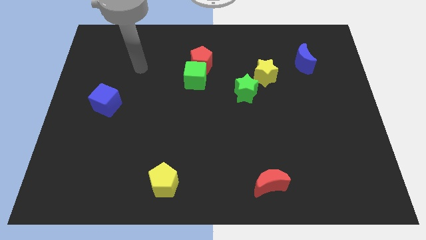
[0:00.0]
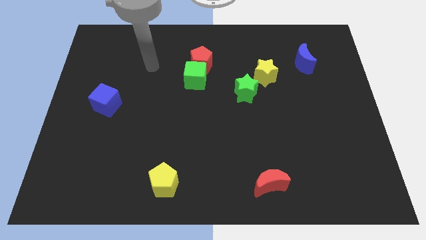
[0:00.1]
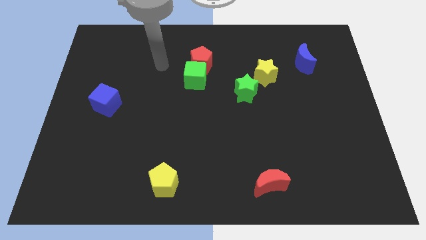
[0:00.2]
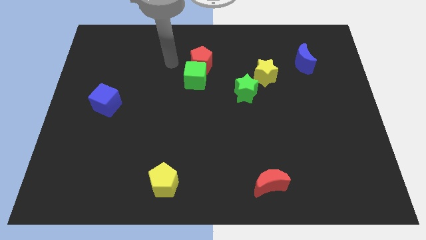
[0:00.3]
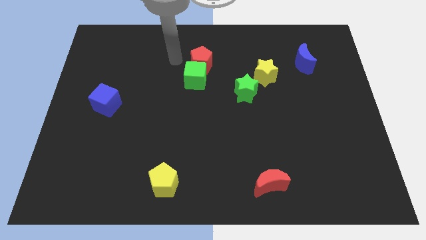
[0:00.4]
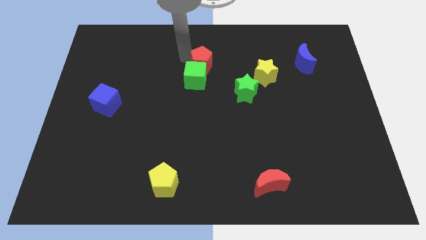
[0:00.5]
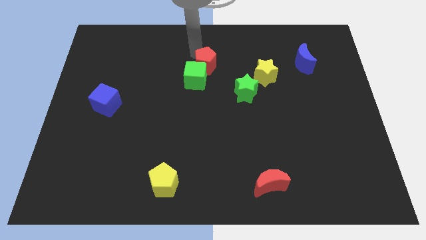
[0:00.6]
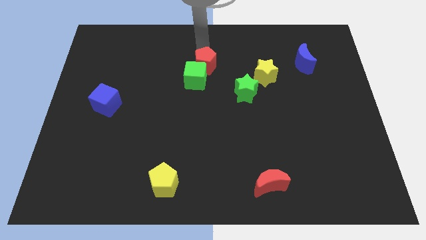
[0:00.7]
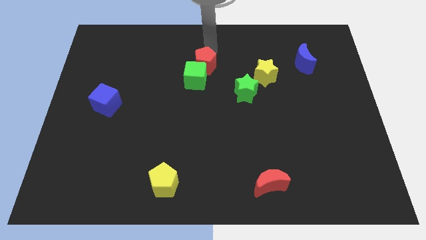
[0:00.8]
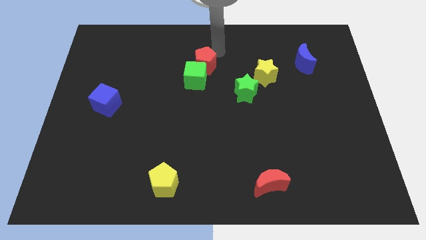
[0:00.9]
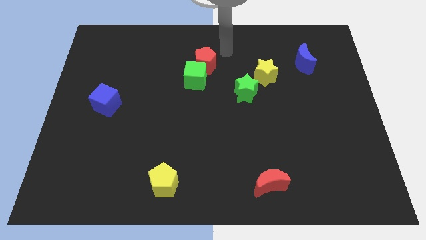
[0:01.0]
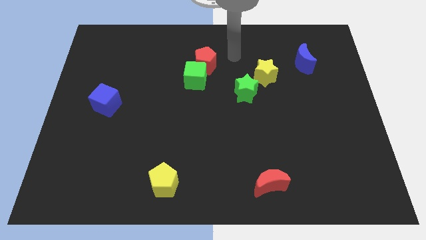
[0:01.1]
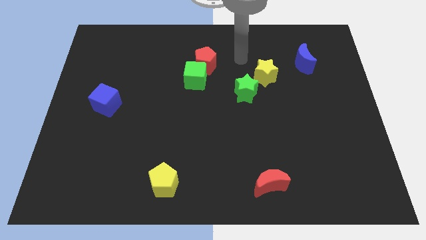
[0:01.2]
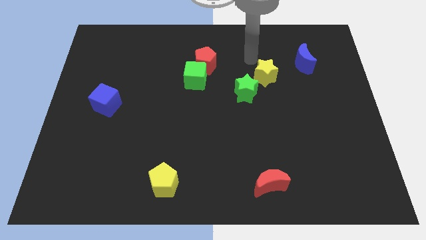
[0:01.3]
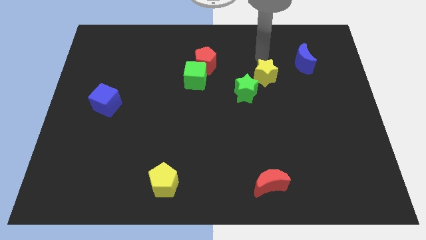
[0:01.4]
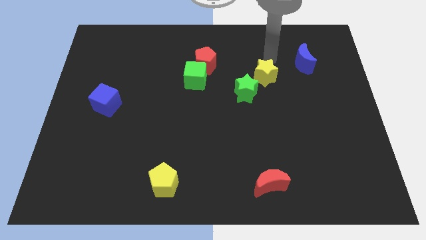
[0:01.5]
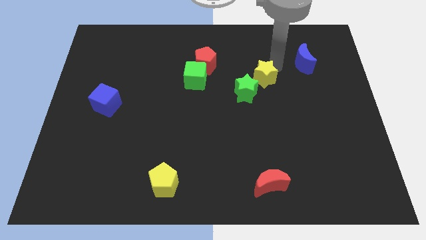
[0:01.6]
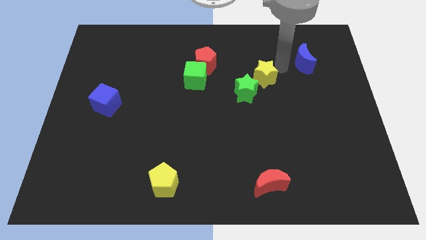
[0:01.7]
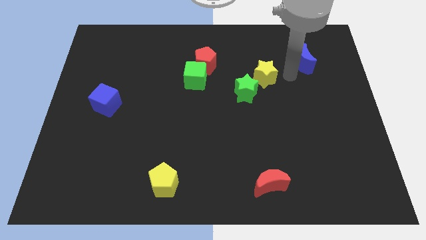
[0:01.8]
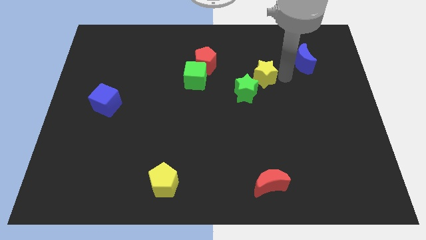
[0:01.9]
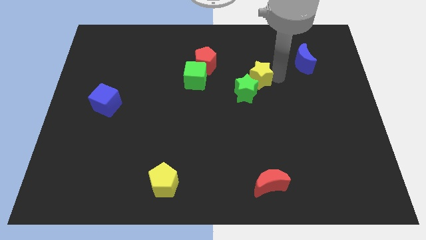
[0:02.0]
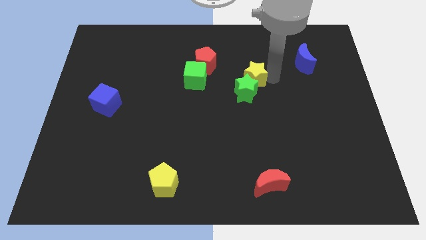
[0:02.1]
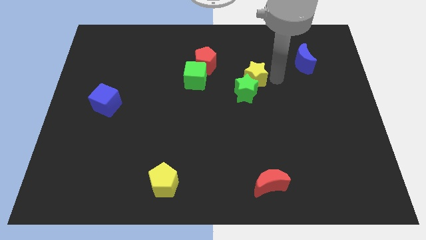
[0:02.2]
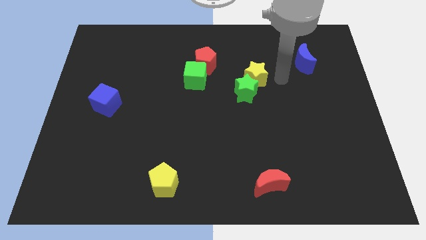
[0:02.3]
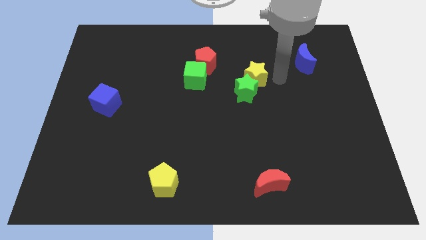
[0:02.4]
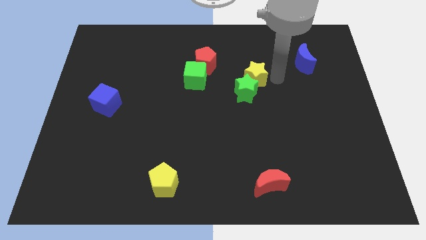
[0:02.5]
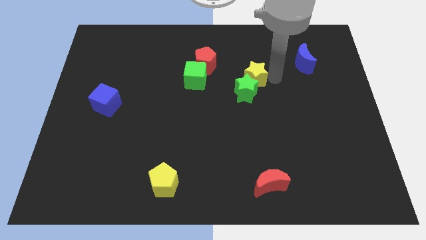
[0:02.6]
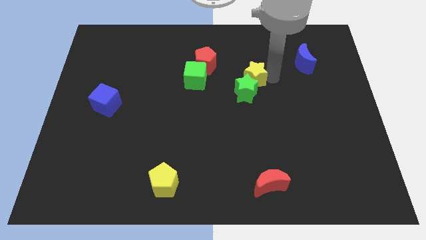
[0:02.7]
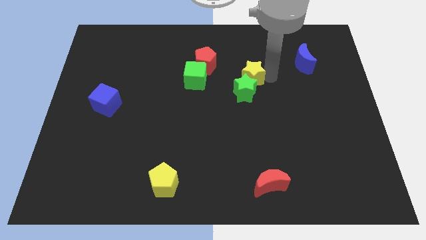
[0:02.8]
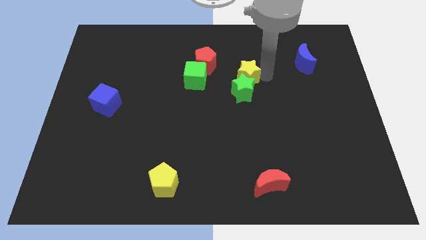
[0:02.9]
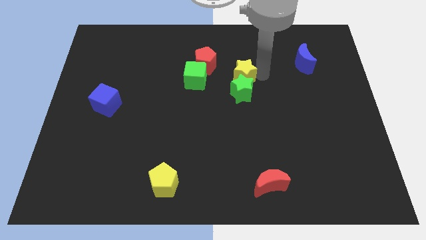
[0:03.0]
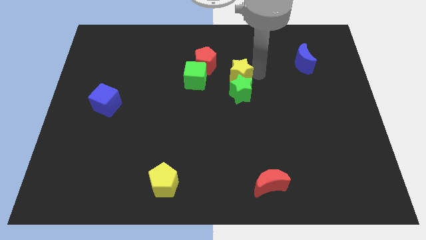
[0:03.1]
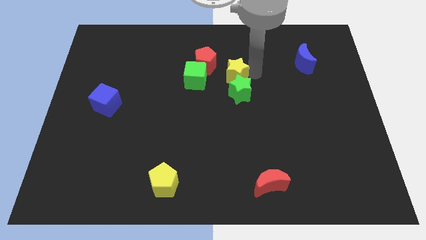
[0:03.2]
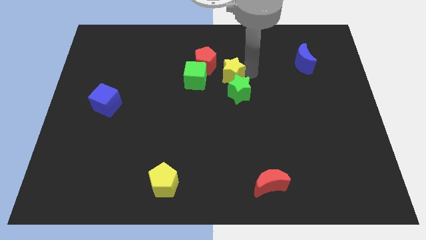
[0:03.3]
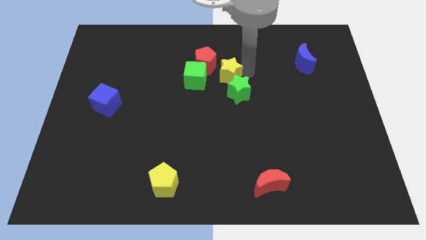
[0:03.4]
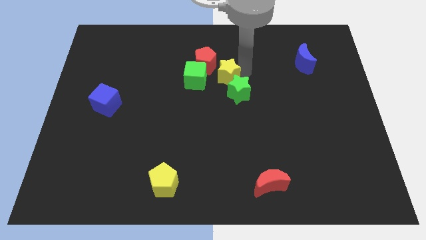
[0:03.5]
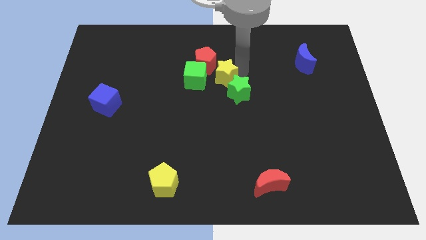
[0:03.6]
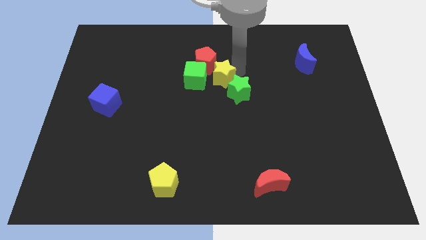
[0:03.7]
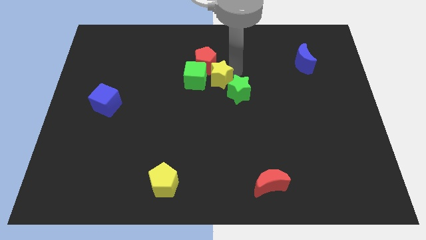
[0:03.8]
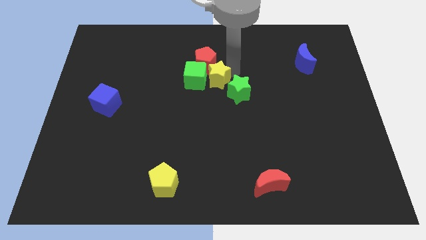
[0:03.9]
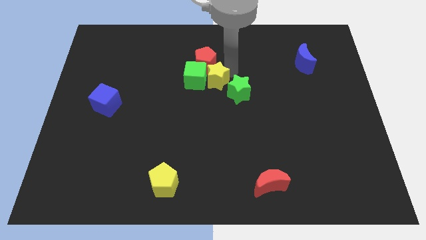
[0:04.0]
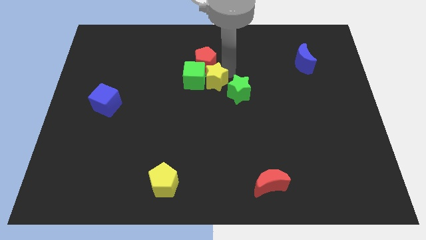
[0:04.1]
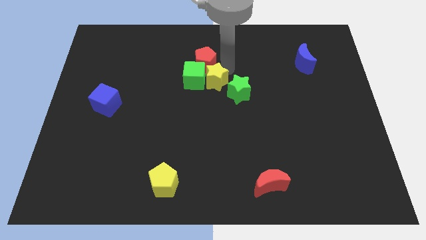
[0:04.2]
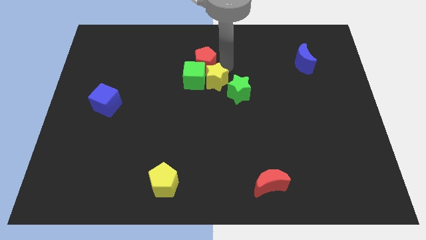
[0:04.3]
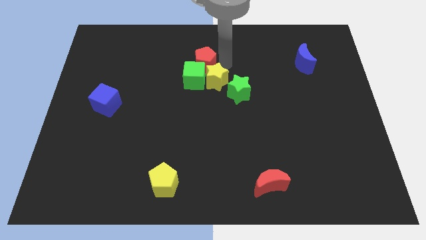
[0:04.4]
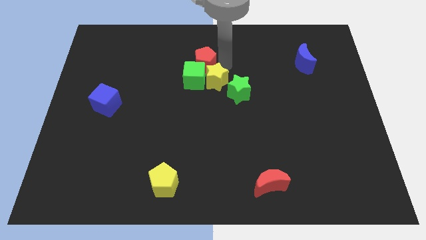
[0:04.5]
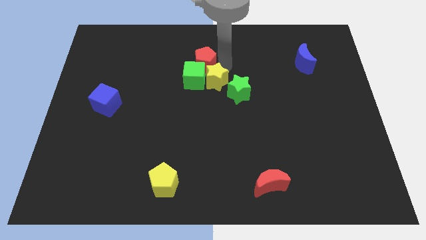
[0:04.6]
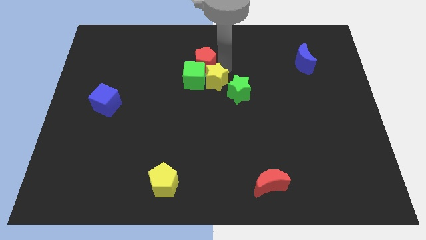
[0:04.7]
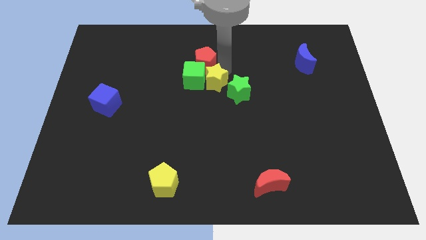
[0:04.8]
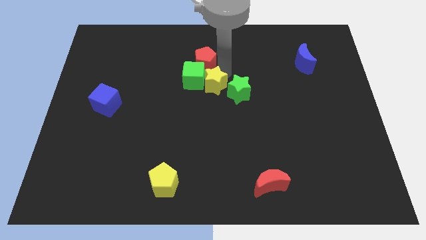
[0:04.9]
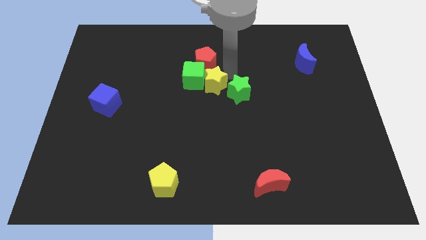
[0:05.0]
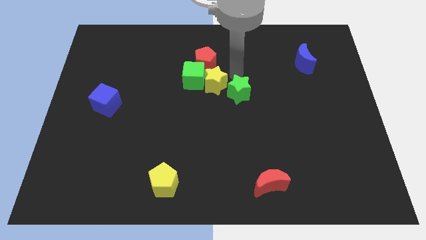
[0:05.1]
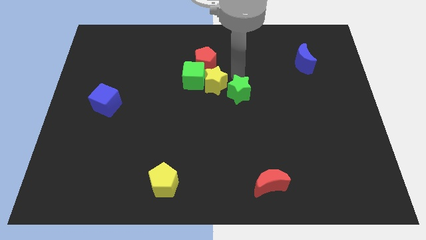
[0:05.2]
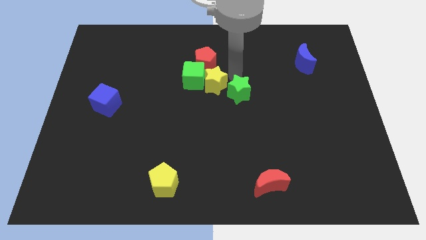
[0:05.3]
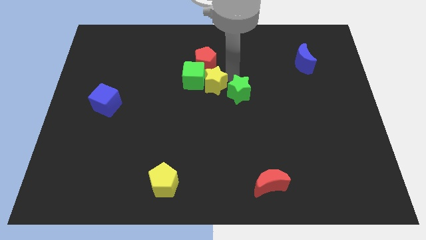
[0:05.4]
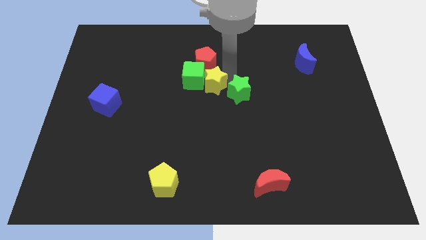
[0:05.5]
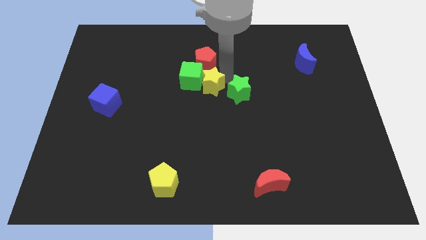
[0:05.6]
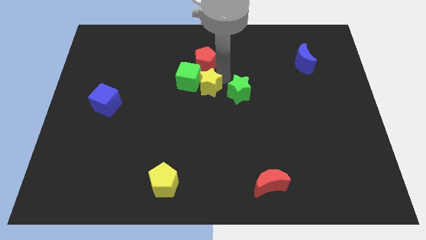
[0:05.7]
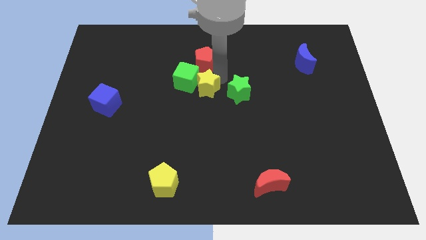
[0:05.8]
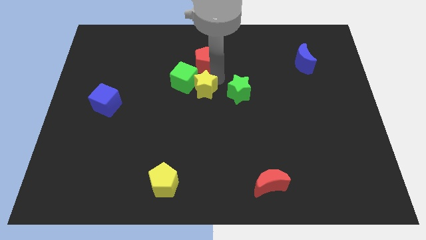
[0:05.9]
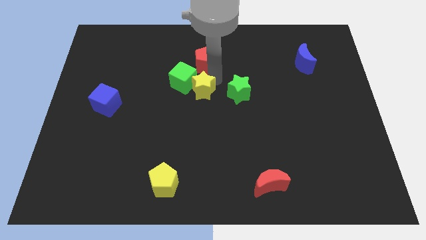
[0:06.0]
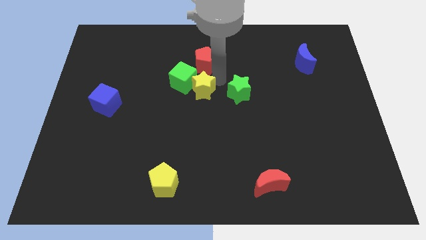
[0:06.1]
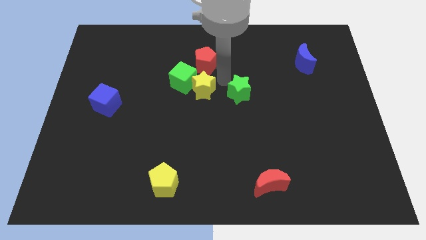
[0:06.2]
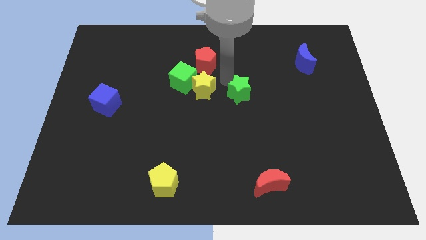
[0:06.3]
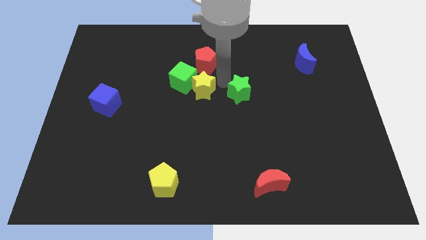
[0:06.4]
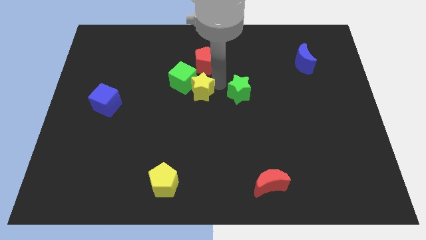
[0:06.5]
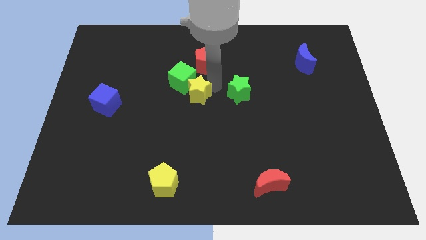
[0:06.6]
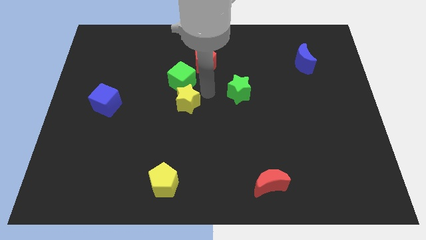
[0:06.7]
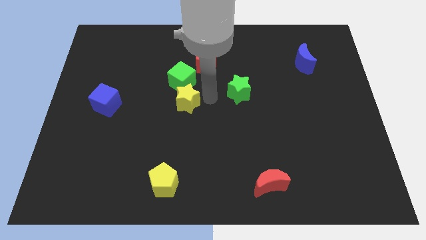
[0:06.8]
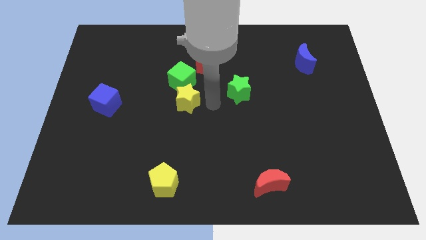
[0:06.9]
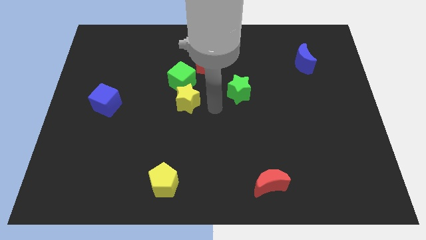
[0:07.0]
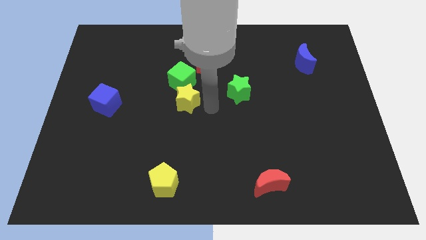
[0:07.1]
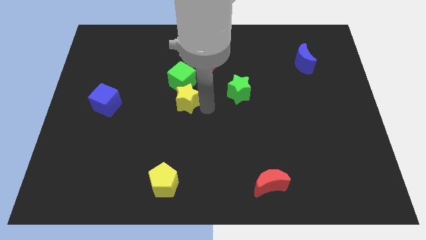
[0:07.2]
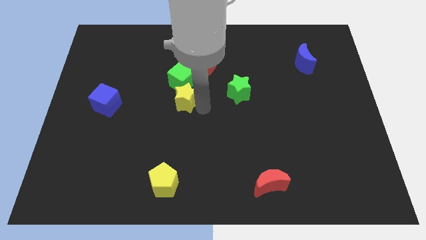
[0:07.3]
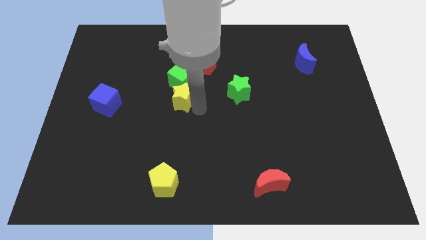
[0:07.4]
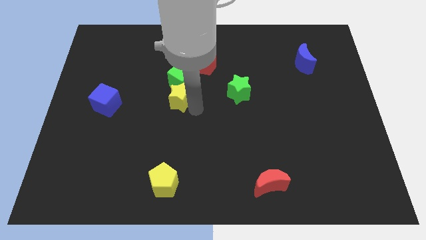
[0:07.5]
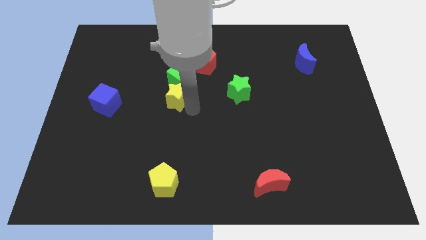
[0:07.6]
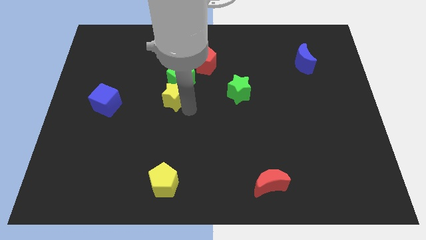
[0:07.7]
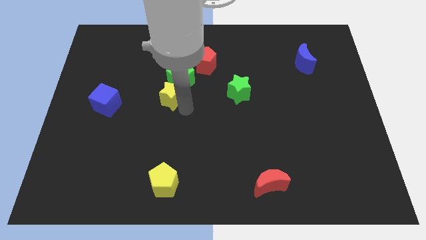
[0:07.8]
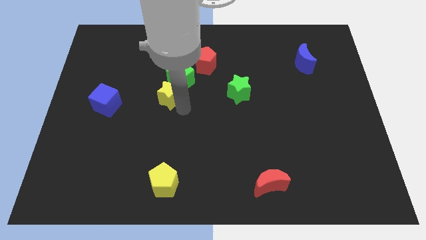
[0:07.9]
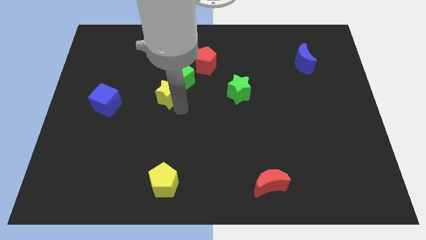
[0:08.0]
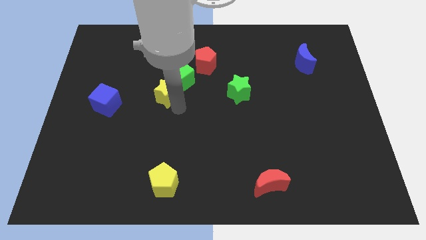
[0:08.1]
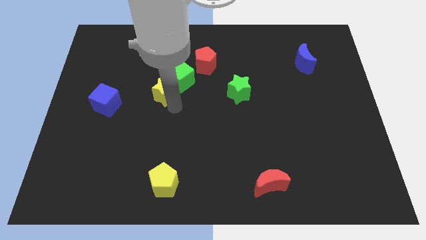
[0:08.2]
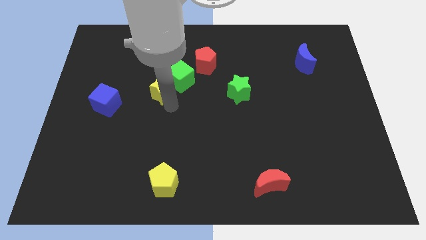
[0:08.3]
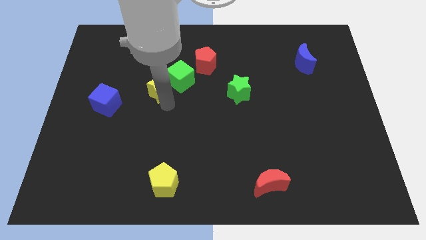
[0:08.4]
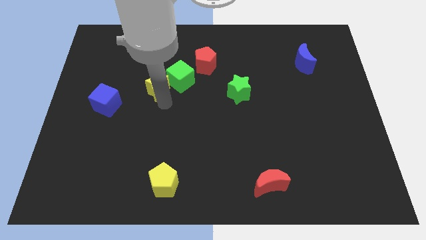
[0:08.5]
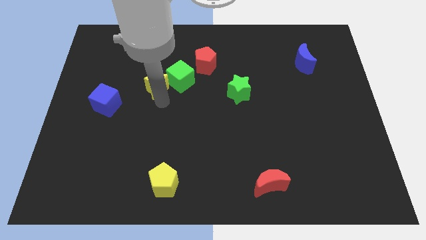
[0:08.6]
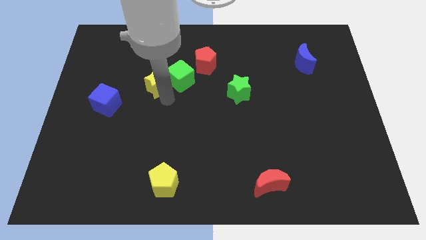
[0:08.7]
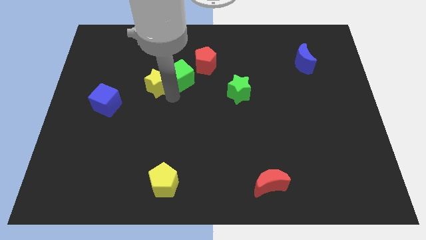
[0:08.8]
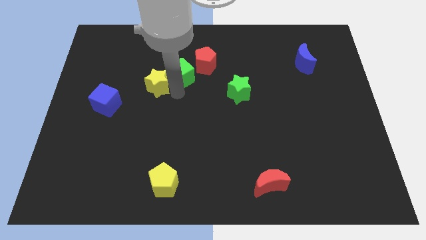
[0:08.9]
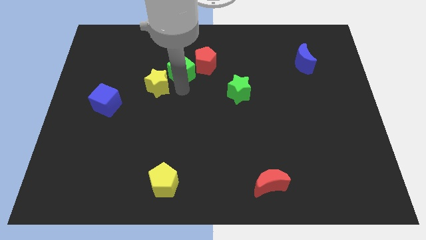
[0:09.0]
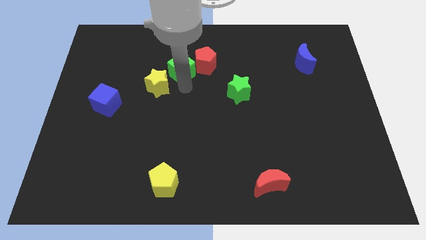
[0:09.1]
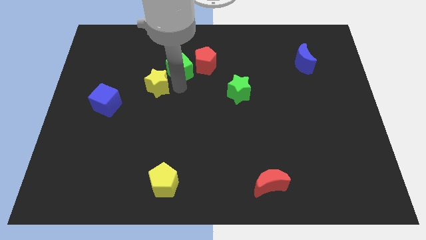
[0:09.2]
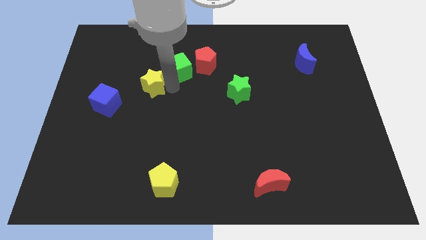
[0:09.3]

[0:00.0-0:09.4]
move the yellow star to the top right side of the blue cube
